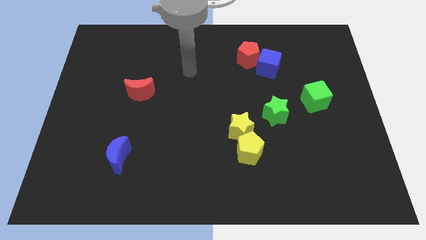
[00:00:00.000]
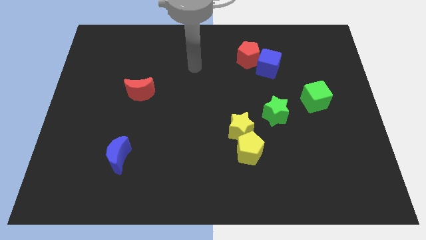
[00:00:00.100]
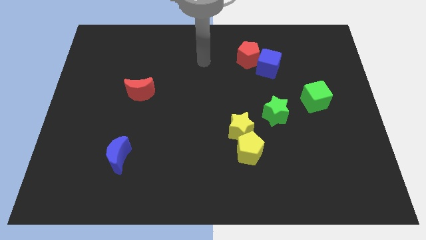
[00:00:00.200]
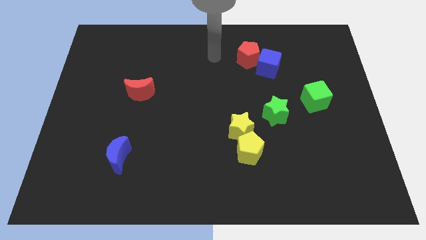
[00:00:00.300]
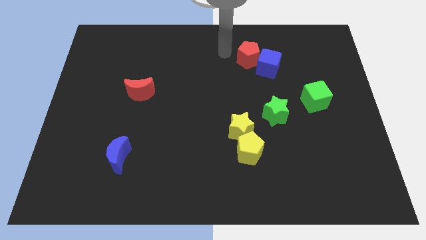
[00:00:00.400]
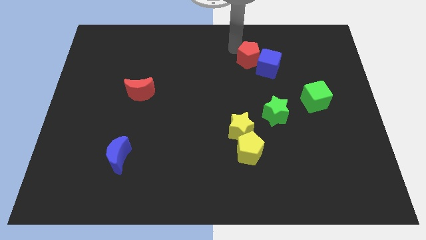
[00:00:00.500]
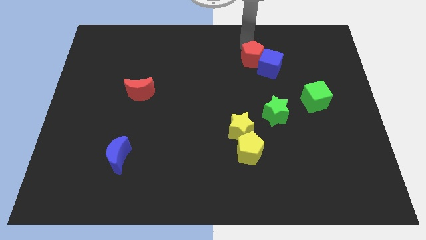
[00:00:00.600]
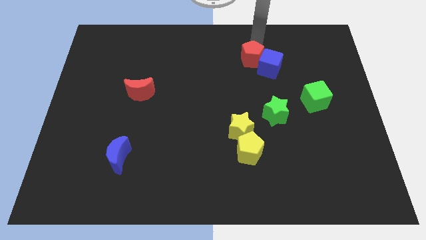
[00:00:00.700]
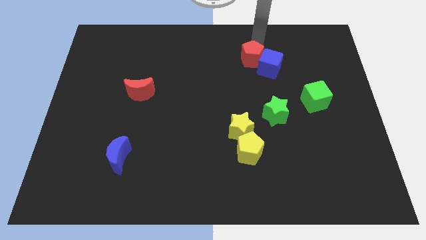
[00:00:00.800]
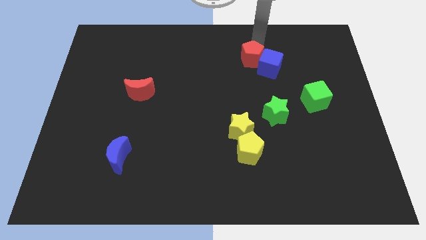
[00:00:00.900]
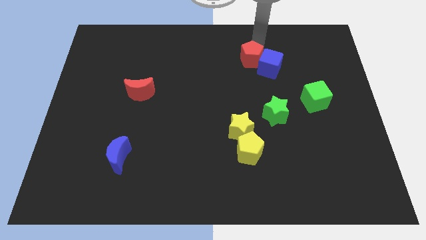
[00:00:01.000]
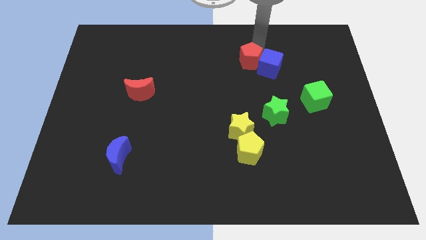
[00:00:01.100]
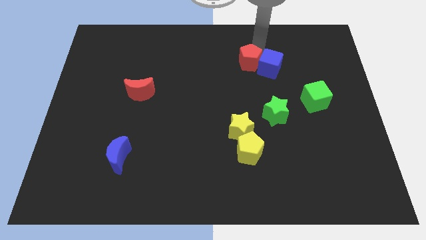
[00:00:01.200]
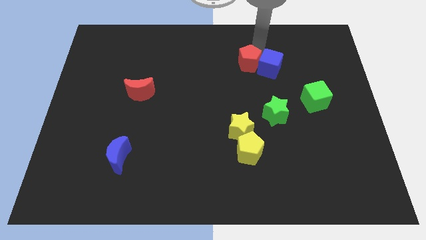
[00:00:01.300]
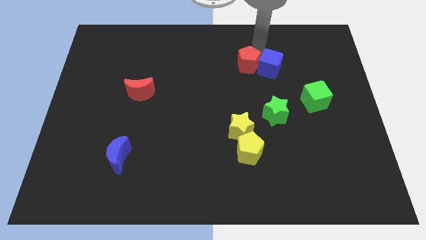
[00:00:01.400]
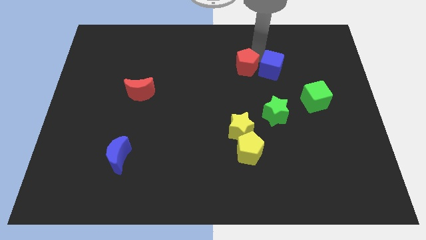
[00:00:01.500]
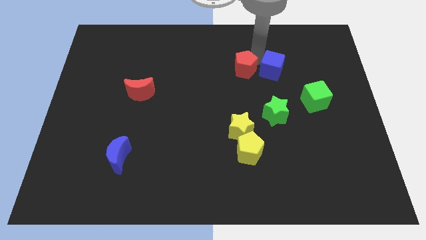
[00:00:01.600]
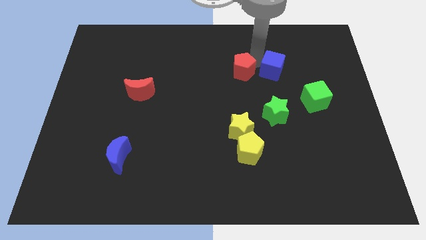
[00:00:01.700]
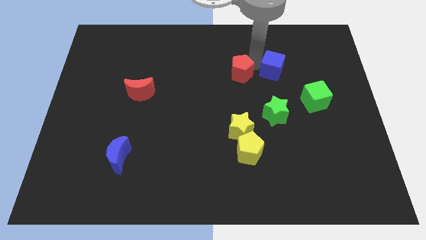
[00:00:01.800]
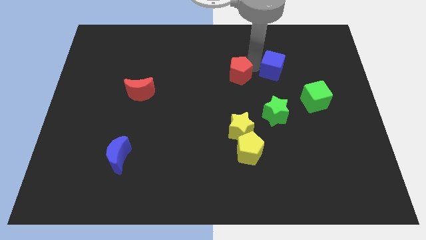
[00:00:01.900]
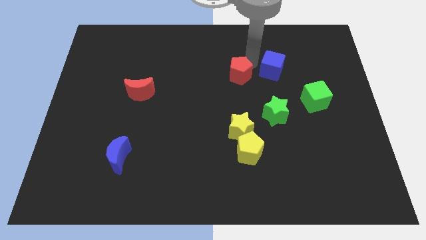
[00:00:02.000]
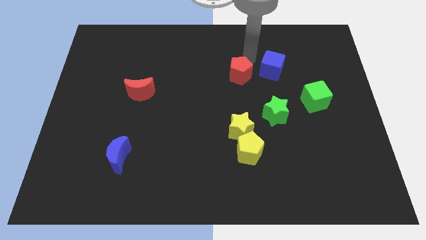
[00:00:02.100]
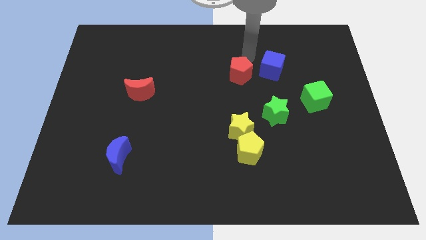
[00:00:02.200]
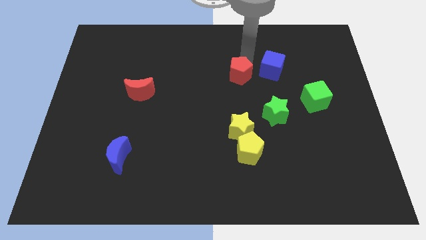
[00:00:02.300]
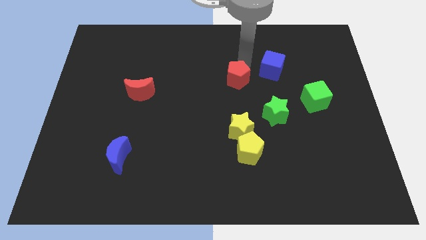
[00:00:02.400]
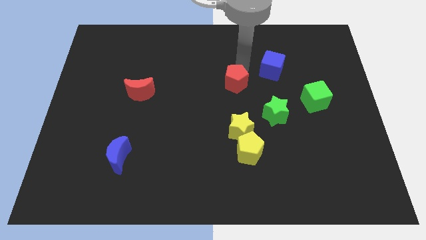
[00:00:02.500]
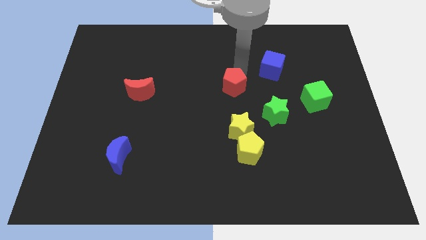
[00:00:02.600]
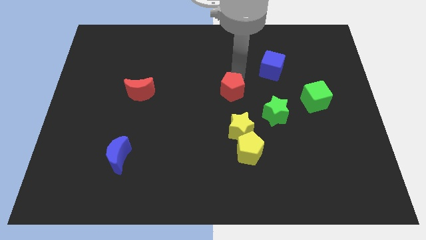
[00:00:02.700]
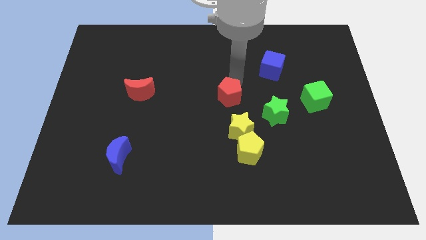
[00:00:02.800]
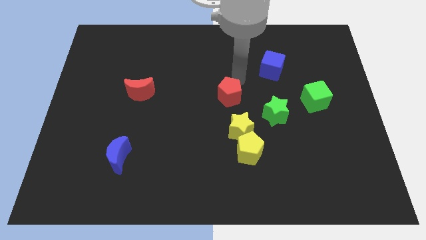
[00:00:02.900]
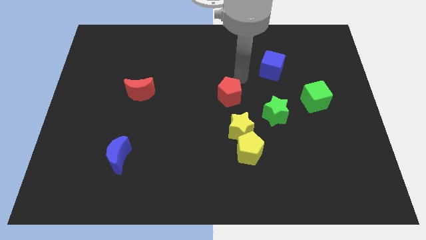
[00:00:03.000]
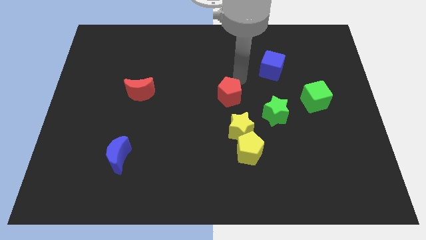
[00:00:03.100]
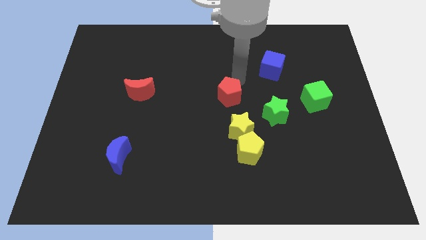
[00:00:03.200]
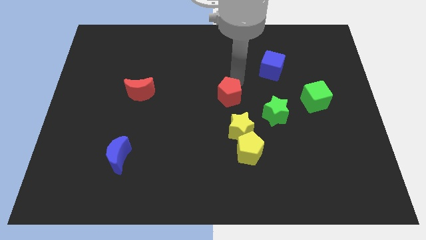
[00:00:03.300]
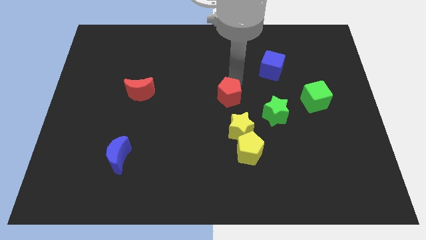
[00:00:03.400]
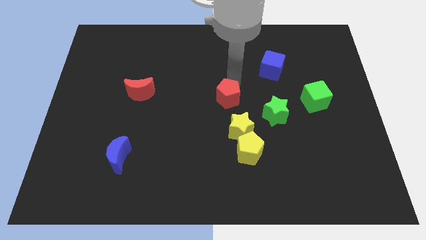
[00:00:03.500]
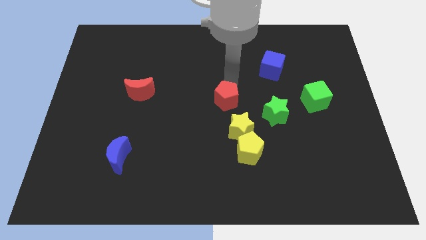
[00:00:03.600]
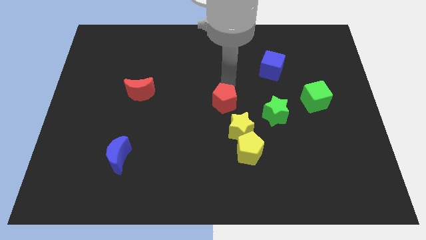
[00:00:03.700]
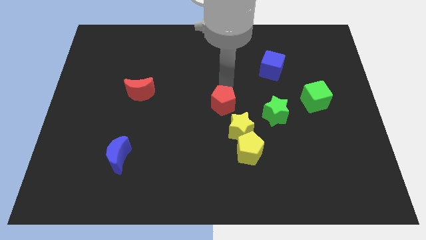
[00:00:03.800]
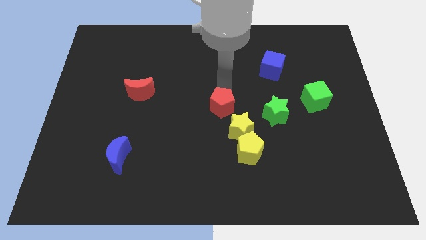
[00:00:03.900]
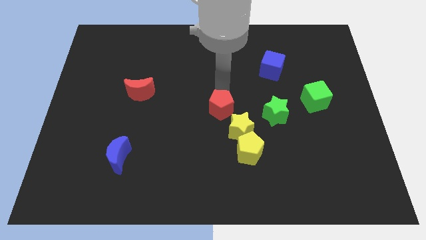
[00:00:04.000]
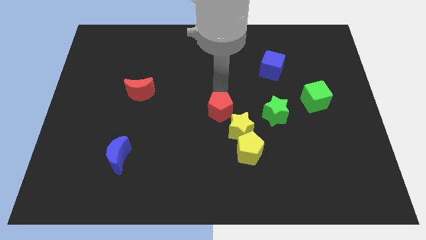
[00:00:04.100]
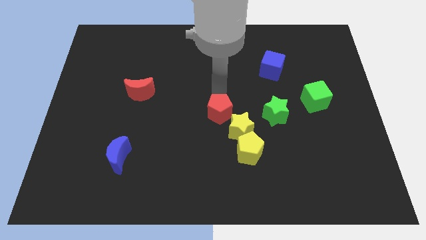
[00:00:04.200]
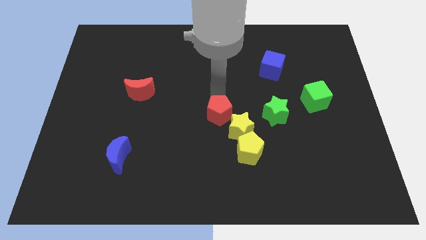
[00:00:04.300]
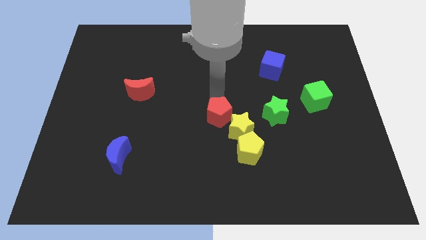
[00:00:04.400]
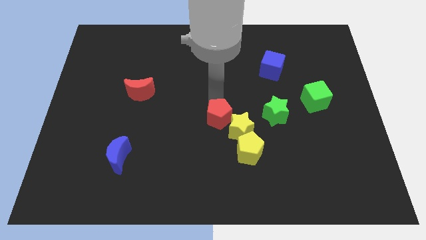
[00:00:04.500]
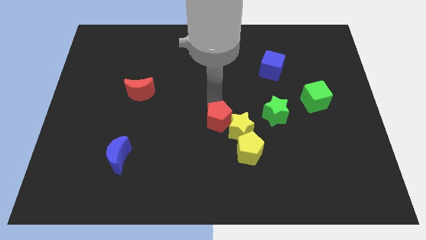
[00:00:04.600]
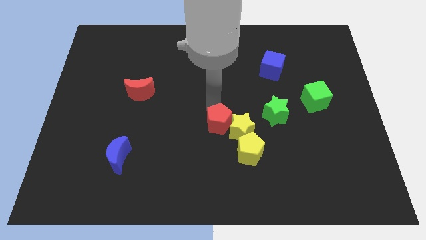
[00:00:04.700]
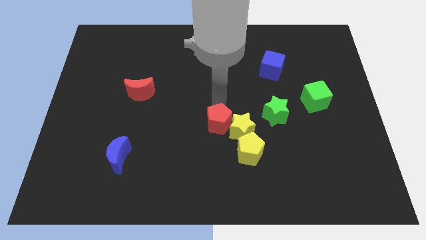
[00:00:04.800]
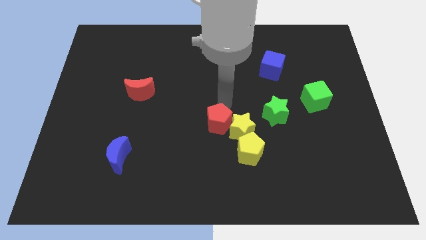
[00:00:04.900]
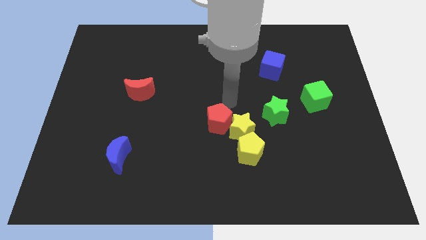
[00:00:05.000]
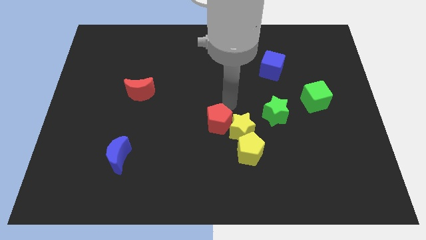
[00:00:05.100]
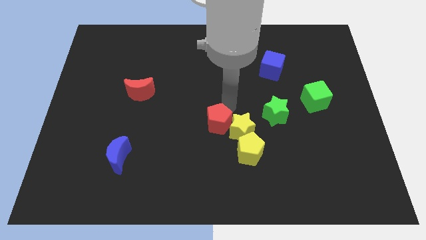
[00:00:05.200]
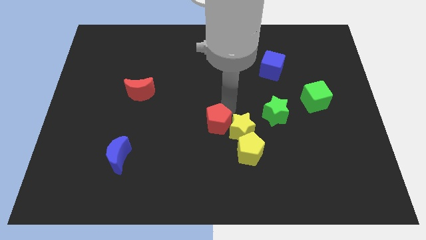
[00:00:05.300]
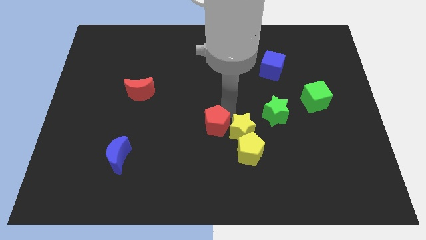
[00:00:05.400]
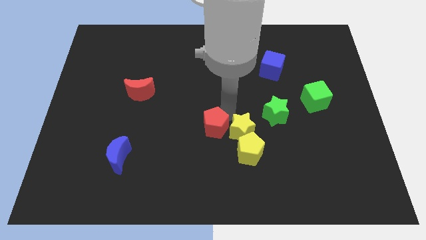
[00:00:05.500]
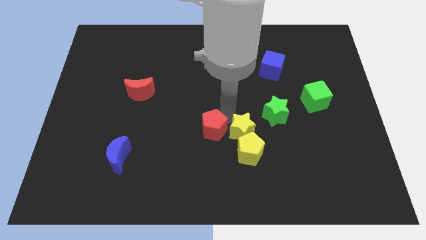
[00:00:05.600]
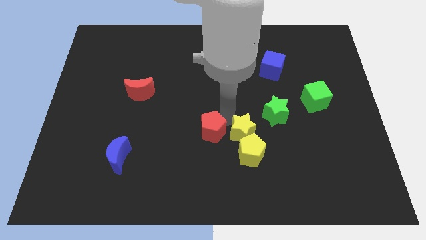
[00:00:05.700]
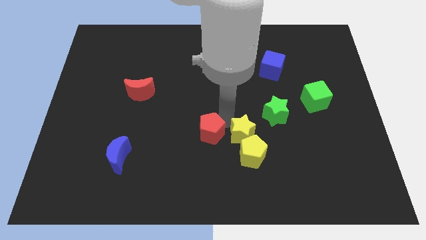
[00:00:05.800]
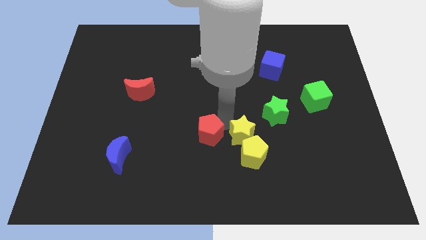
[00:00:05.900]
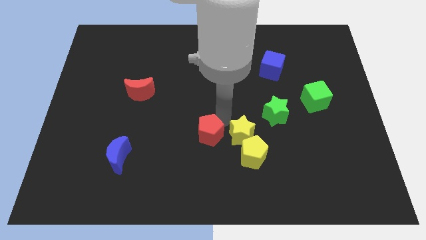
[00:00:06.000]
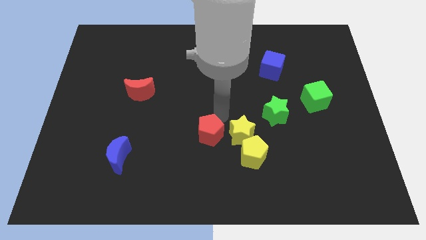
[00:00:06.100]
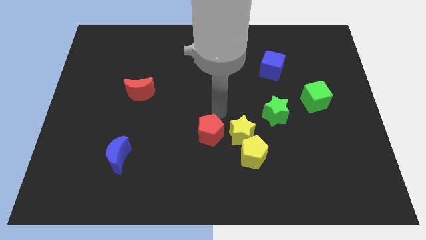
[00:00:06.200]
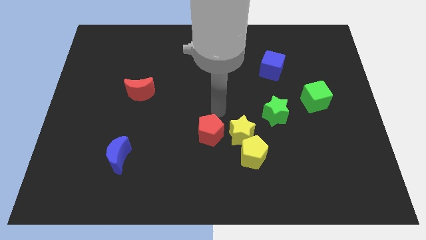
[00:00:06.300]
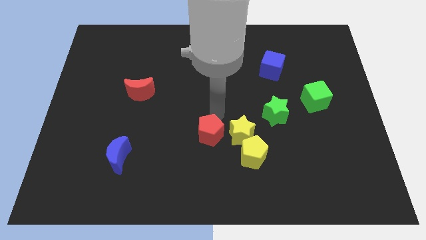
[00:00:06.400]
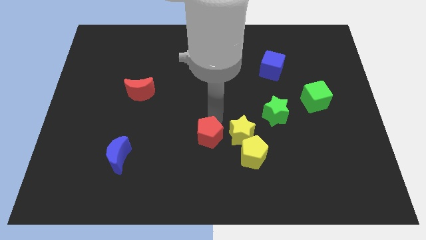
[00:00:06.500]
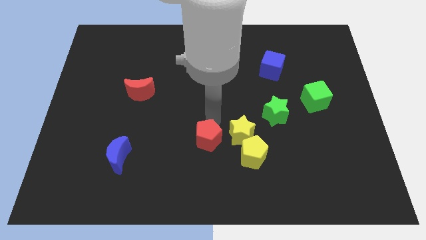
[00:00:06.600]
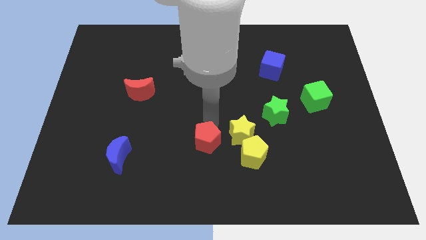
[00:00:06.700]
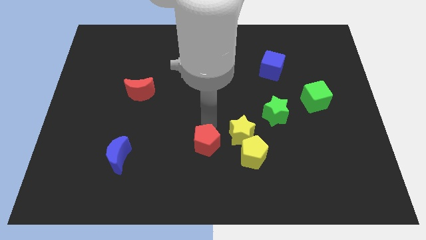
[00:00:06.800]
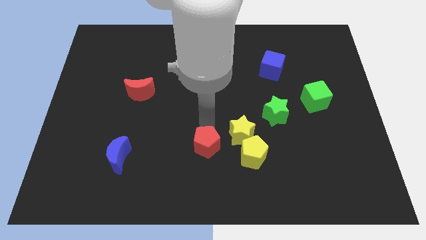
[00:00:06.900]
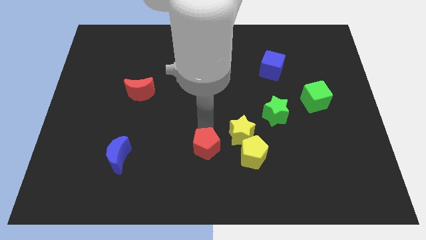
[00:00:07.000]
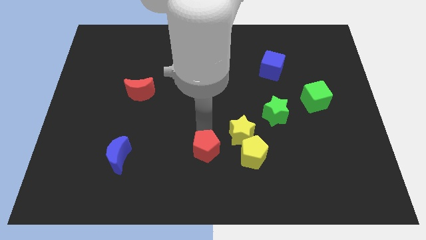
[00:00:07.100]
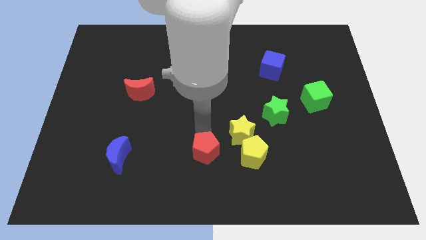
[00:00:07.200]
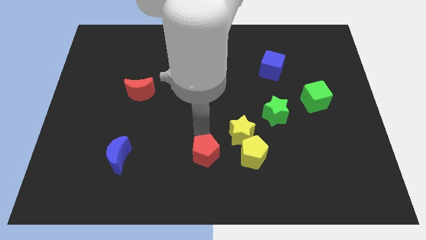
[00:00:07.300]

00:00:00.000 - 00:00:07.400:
slide the red pentagon to the bottom
